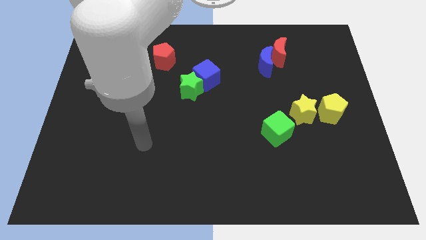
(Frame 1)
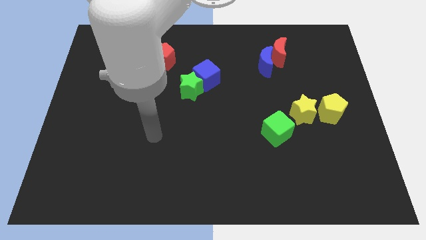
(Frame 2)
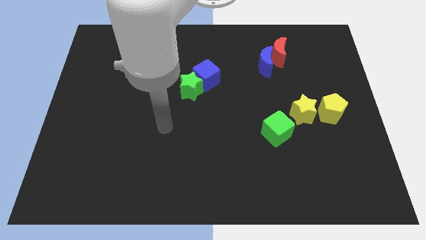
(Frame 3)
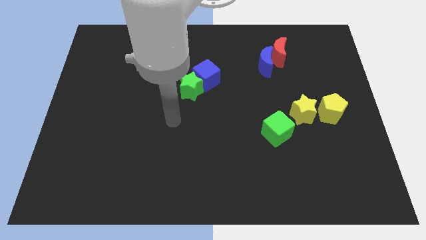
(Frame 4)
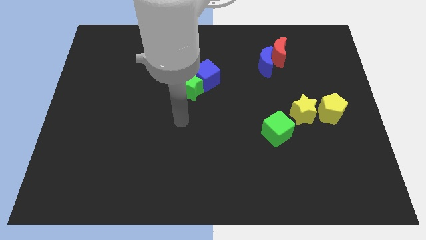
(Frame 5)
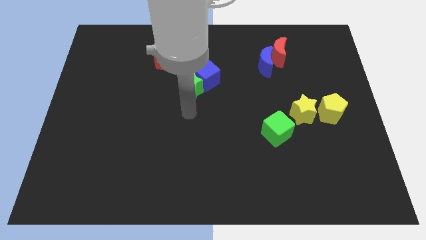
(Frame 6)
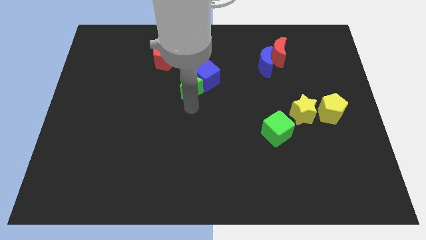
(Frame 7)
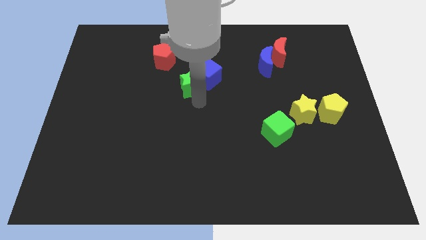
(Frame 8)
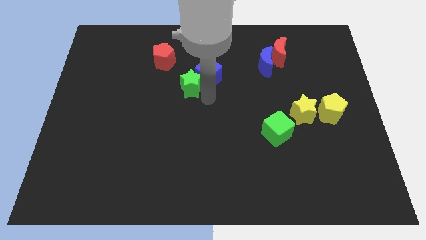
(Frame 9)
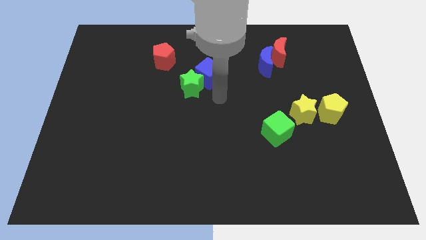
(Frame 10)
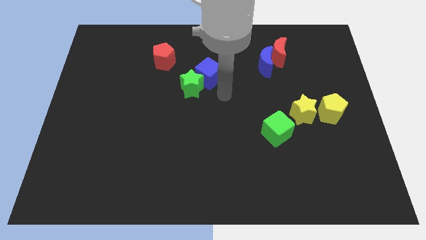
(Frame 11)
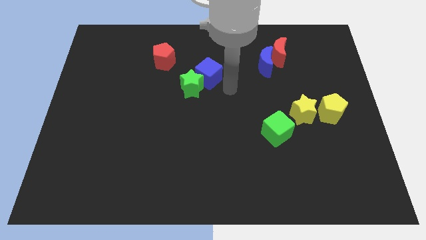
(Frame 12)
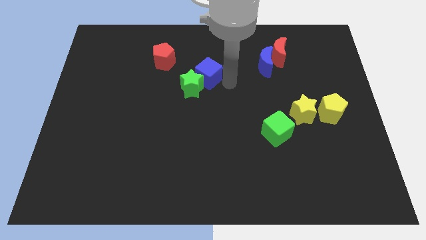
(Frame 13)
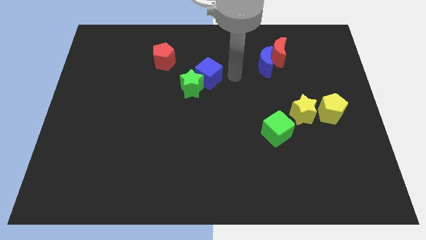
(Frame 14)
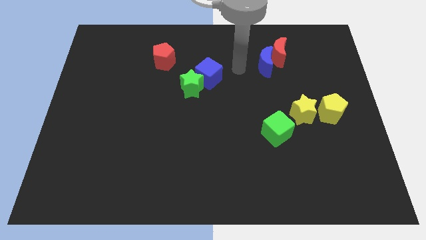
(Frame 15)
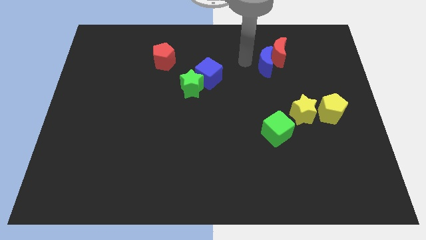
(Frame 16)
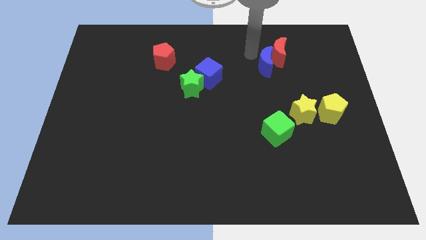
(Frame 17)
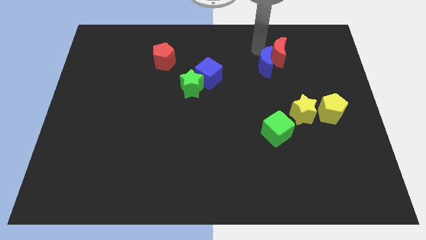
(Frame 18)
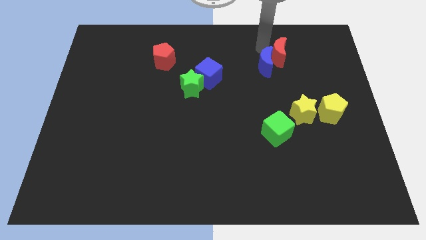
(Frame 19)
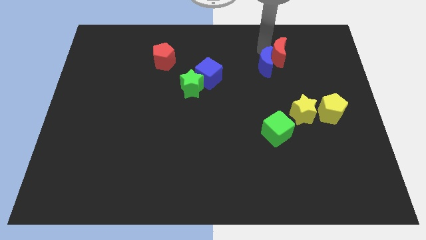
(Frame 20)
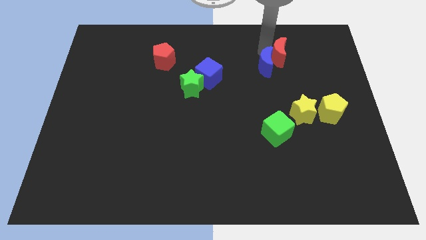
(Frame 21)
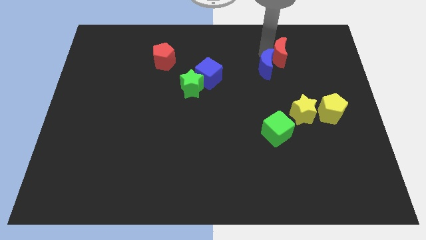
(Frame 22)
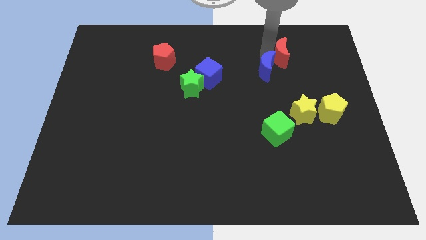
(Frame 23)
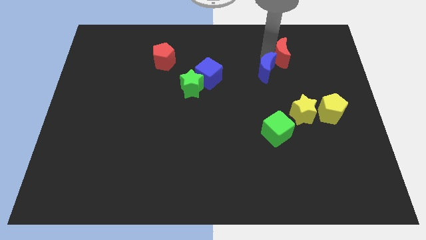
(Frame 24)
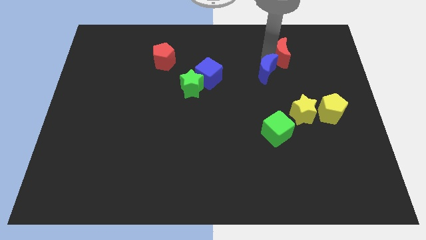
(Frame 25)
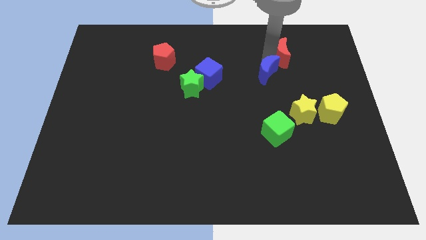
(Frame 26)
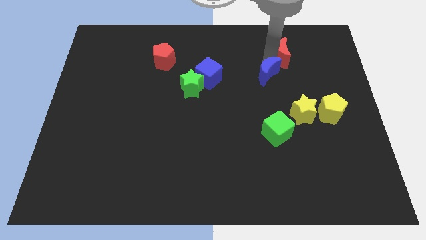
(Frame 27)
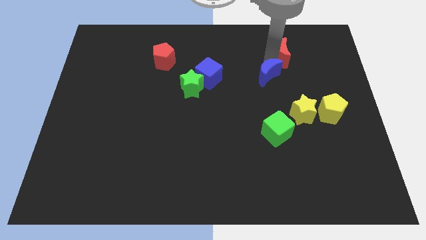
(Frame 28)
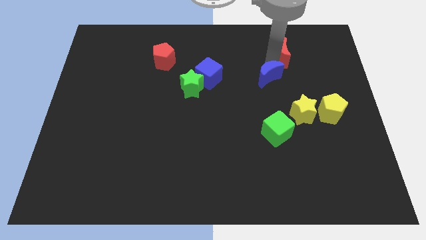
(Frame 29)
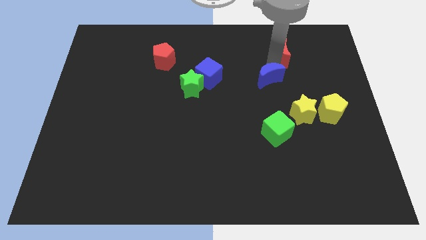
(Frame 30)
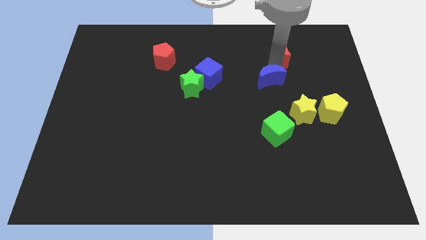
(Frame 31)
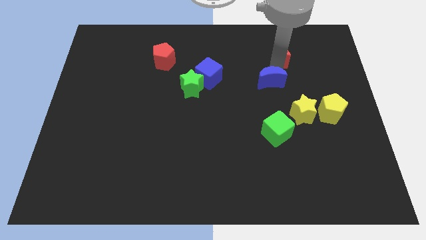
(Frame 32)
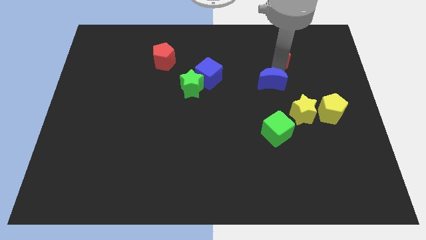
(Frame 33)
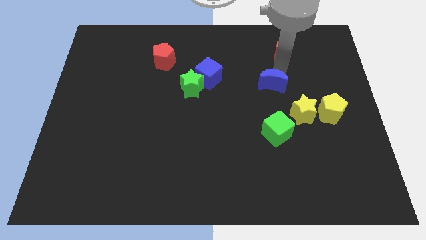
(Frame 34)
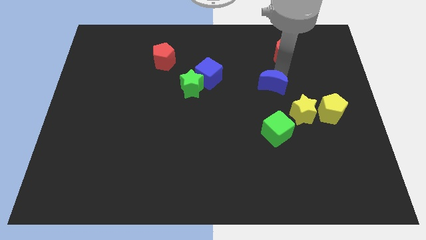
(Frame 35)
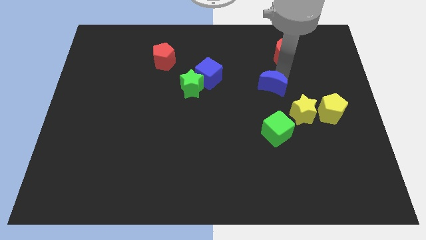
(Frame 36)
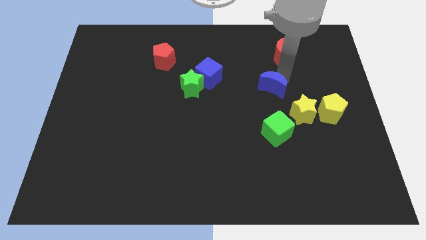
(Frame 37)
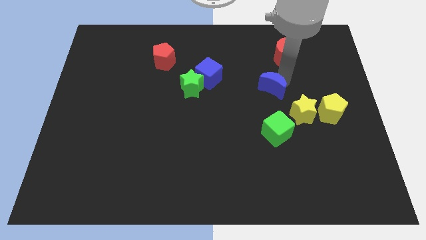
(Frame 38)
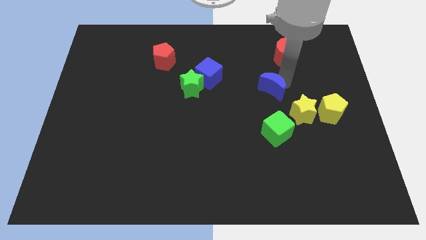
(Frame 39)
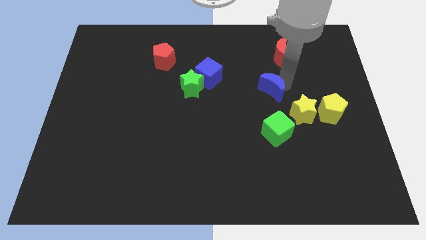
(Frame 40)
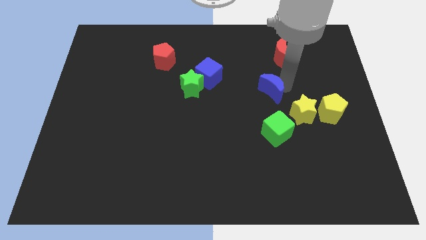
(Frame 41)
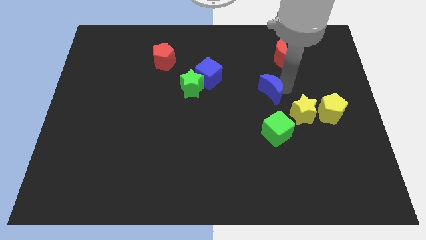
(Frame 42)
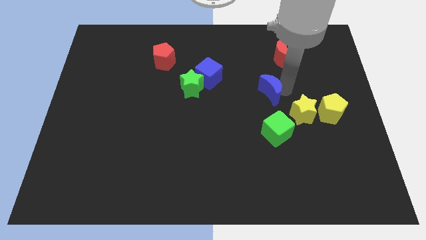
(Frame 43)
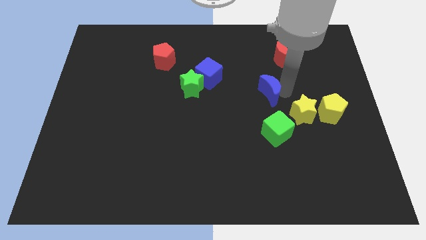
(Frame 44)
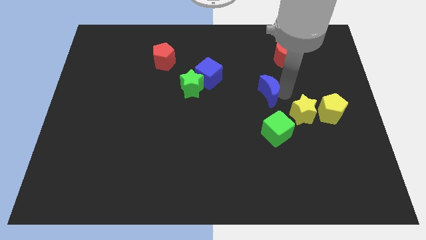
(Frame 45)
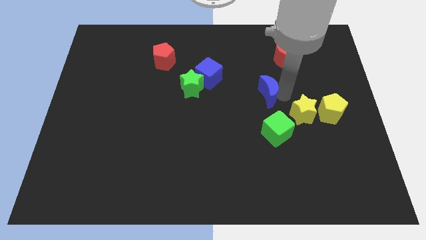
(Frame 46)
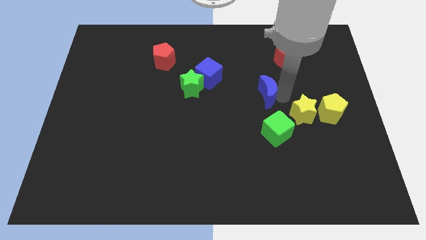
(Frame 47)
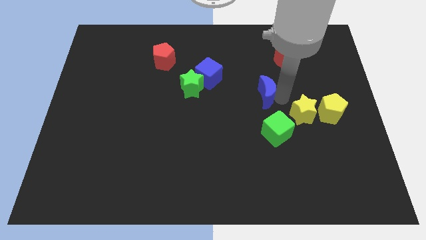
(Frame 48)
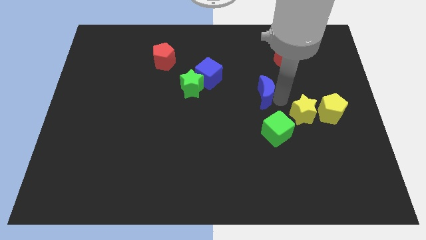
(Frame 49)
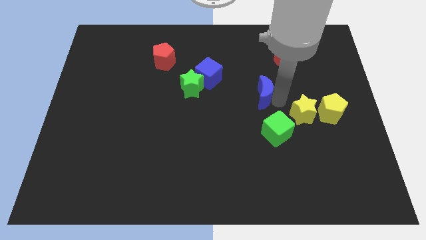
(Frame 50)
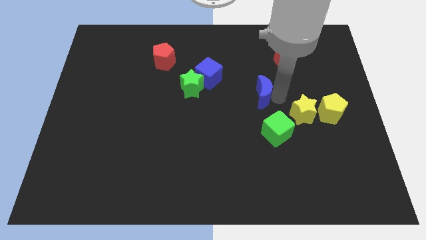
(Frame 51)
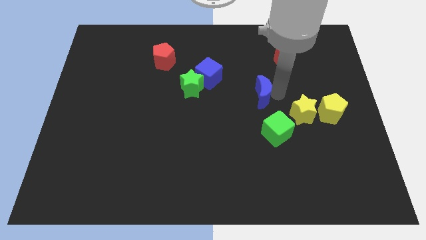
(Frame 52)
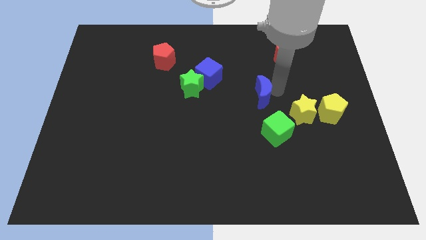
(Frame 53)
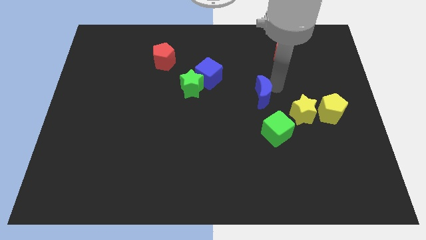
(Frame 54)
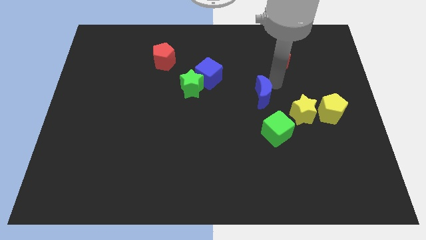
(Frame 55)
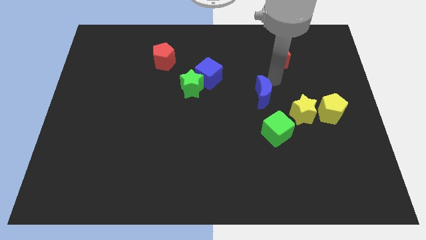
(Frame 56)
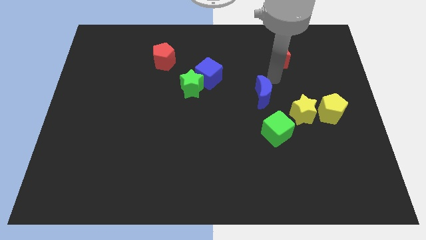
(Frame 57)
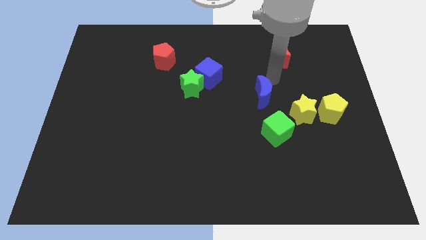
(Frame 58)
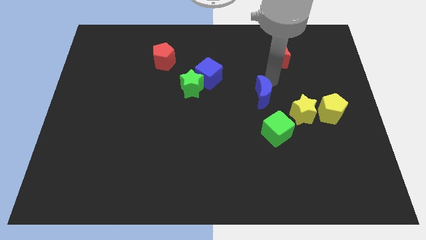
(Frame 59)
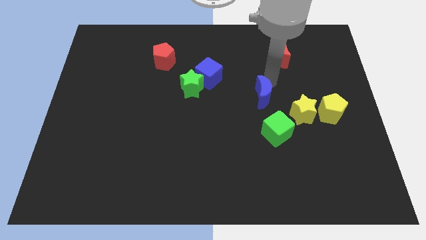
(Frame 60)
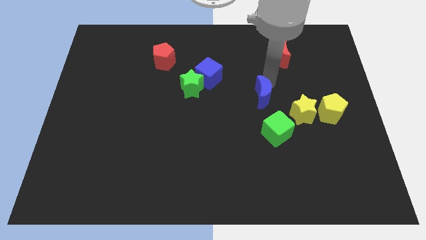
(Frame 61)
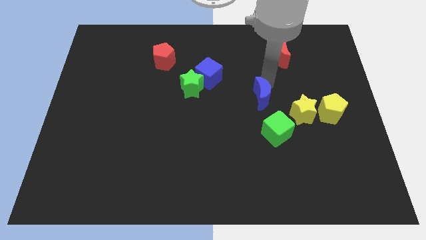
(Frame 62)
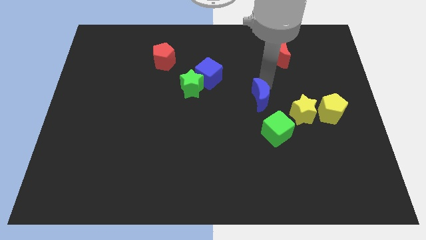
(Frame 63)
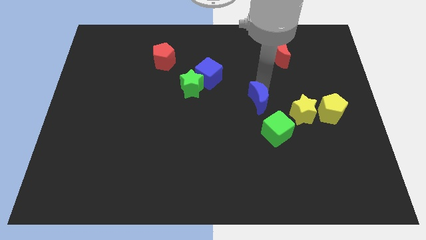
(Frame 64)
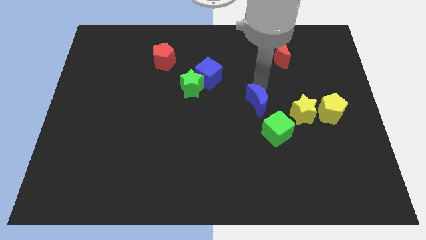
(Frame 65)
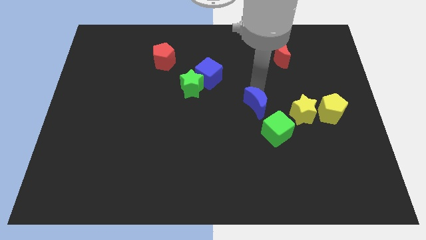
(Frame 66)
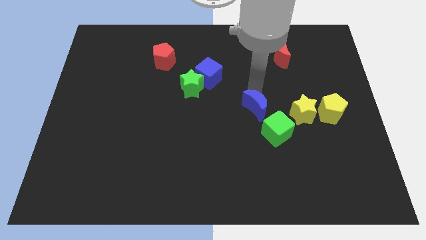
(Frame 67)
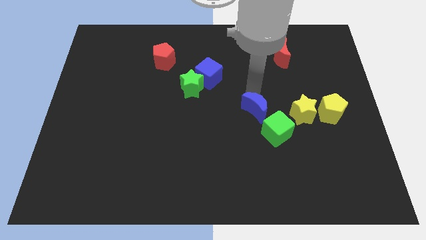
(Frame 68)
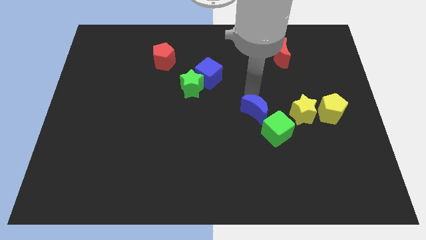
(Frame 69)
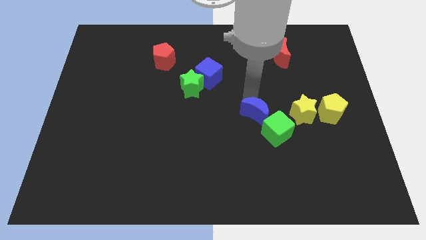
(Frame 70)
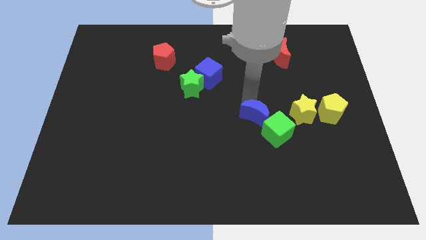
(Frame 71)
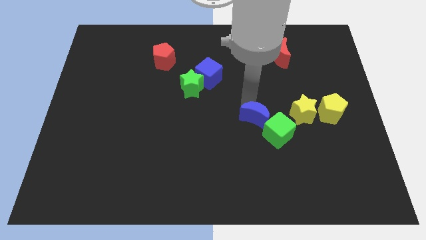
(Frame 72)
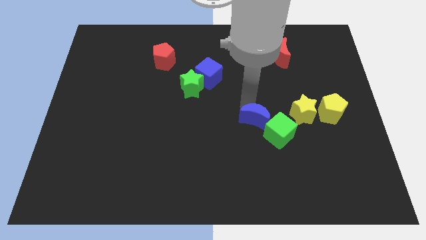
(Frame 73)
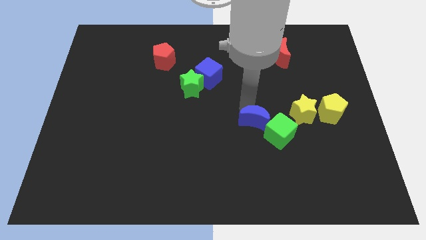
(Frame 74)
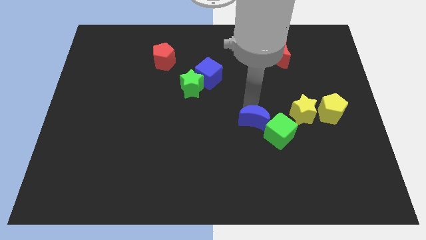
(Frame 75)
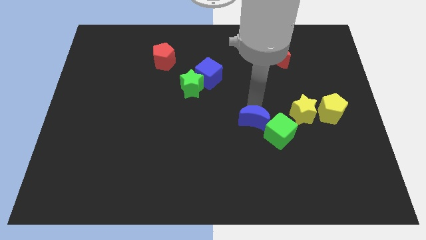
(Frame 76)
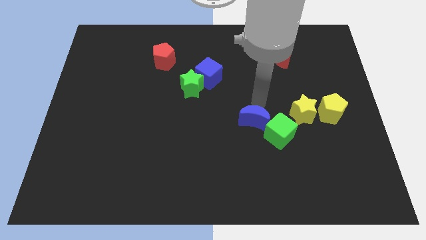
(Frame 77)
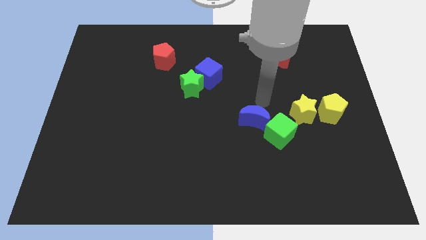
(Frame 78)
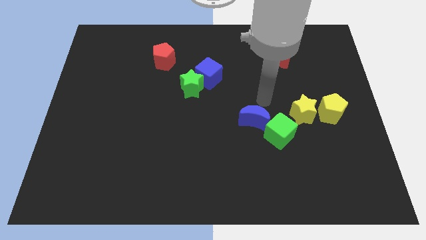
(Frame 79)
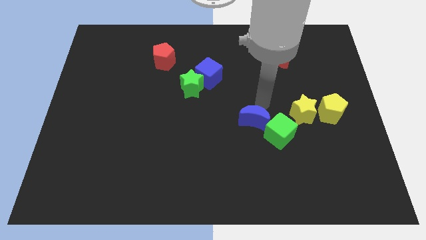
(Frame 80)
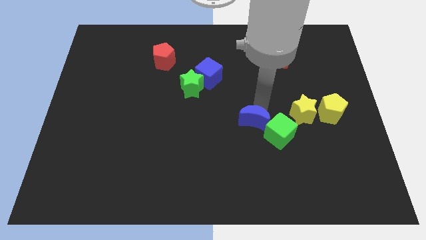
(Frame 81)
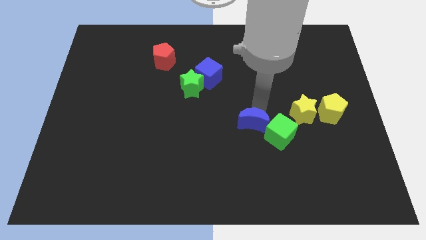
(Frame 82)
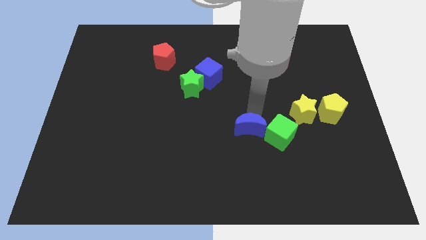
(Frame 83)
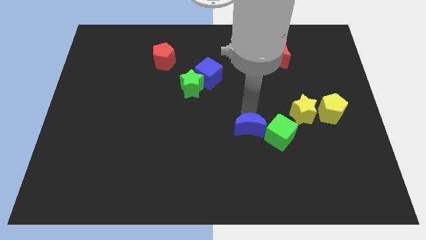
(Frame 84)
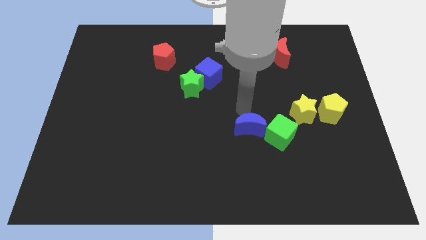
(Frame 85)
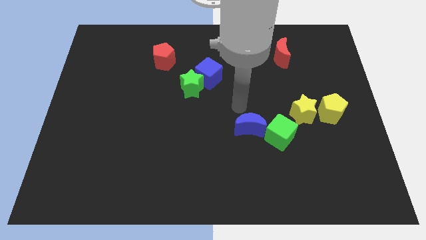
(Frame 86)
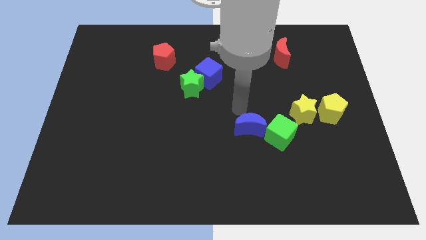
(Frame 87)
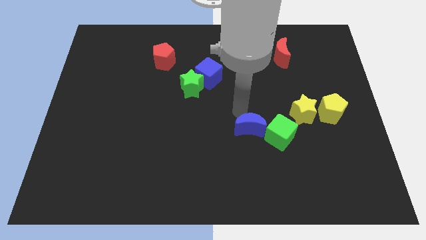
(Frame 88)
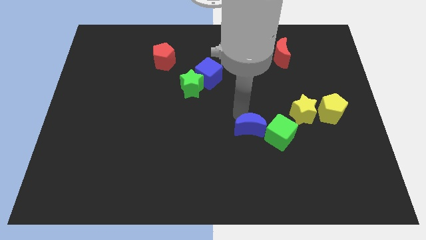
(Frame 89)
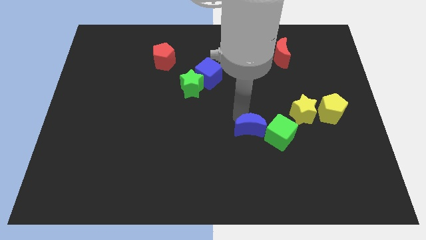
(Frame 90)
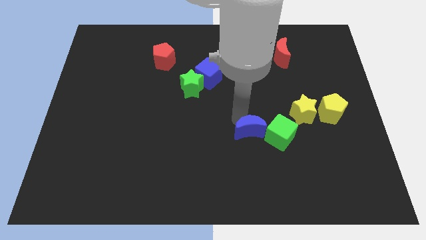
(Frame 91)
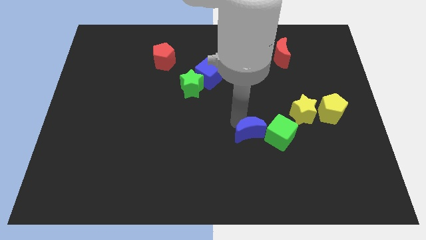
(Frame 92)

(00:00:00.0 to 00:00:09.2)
move the blue moon downwards
